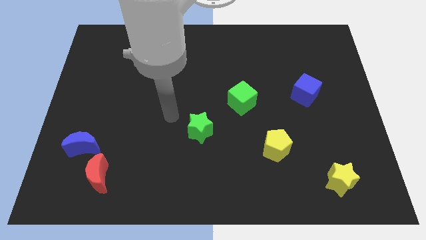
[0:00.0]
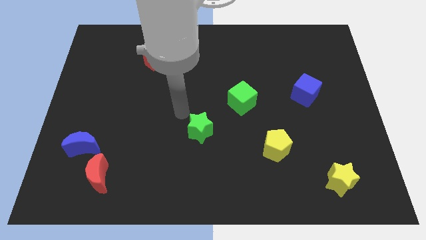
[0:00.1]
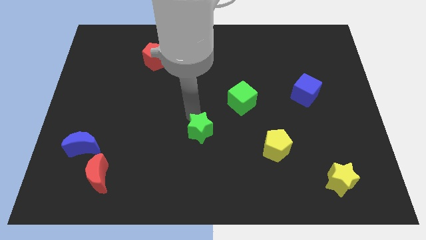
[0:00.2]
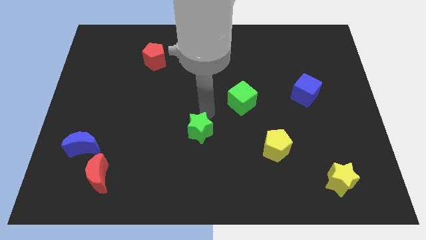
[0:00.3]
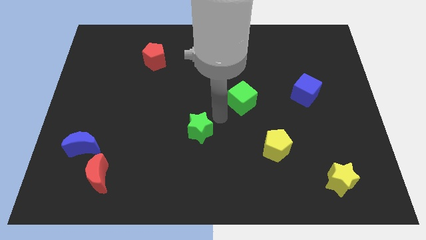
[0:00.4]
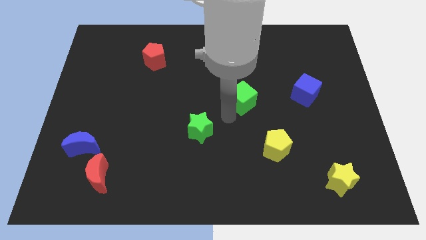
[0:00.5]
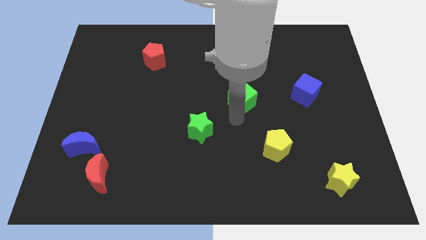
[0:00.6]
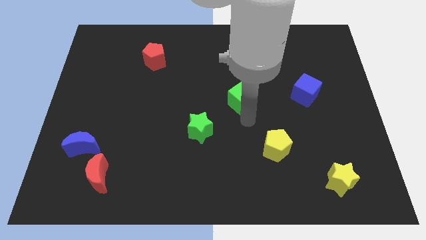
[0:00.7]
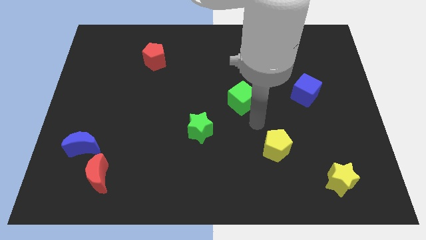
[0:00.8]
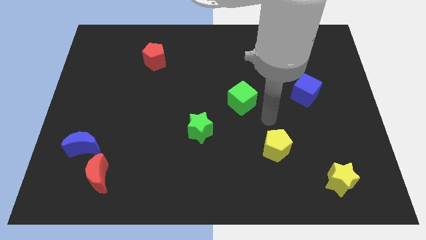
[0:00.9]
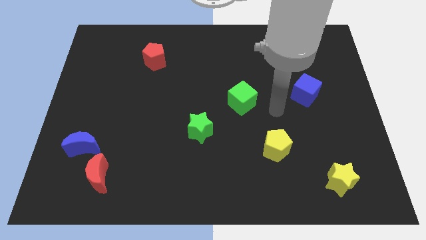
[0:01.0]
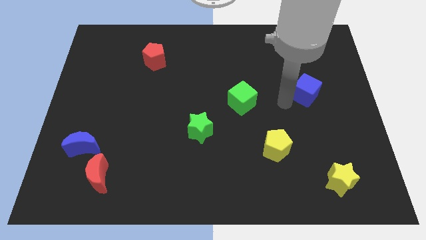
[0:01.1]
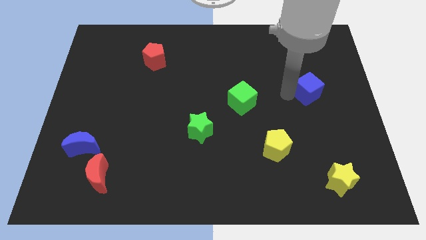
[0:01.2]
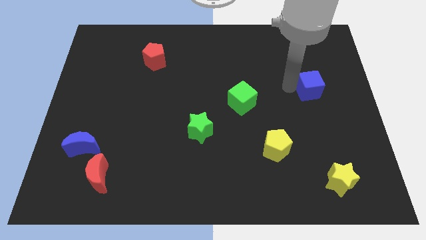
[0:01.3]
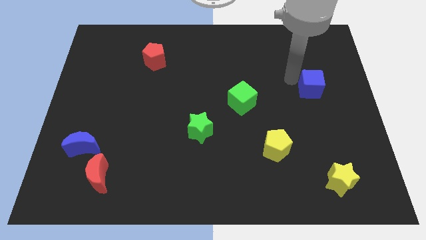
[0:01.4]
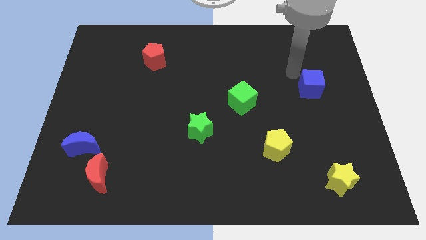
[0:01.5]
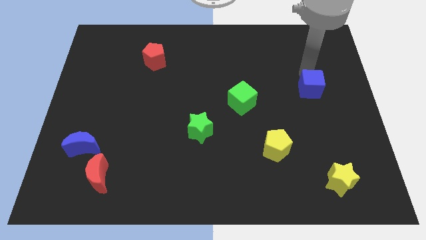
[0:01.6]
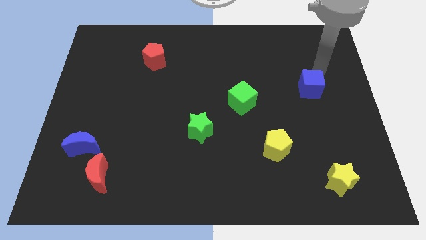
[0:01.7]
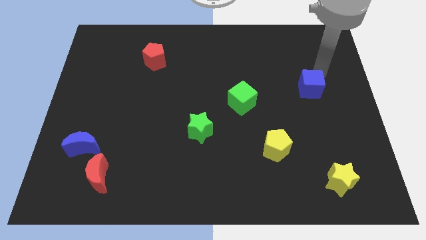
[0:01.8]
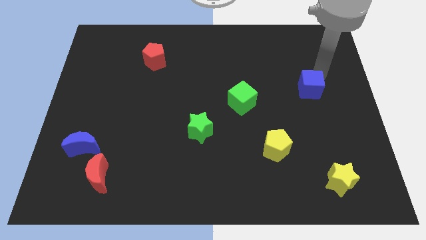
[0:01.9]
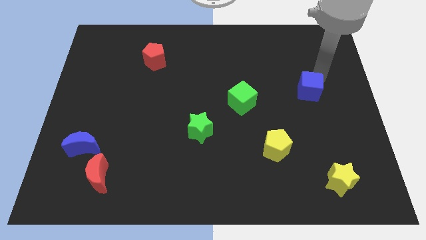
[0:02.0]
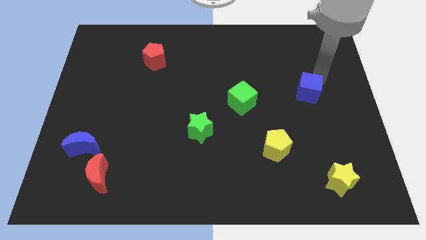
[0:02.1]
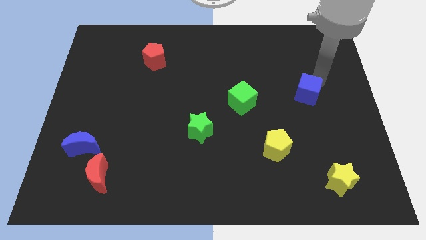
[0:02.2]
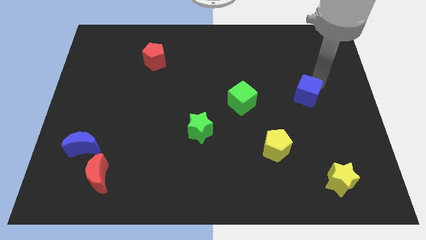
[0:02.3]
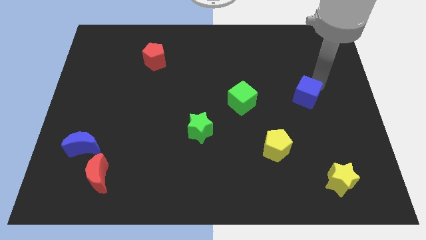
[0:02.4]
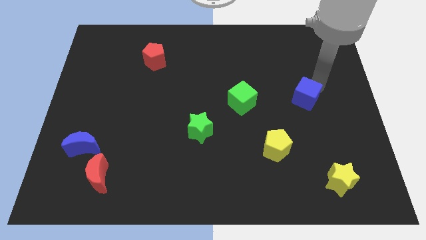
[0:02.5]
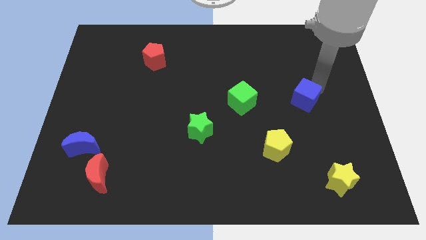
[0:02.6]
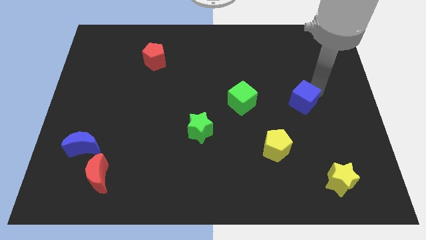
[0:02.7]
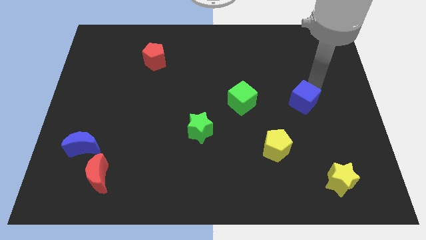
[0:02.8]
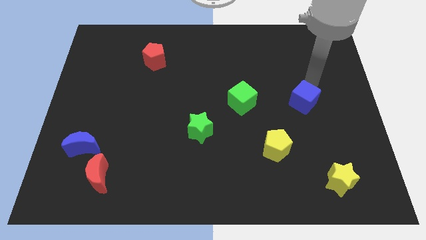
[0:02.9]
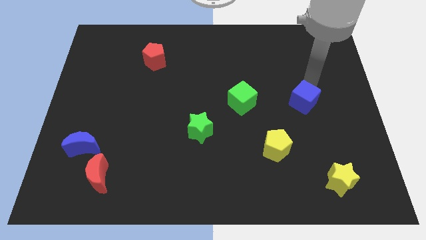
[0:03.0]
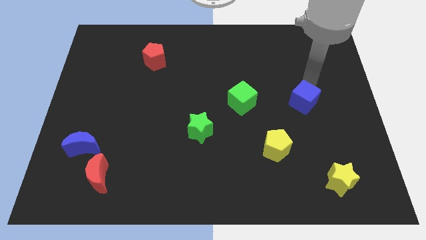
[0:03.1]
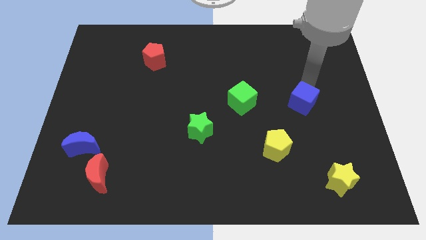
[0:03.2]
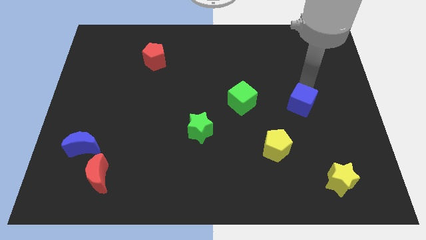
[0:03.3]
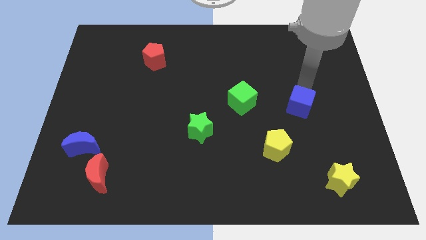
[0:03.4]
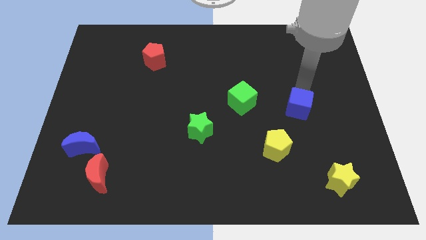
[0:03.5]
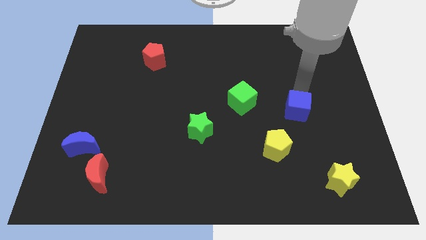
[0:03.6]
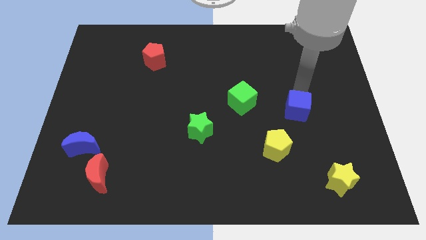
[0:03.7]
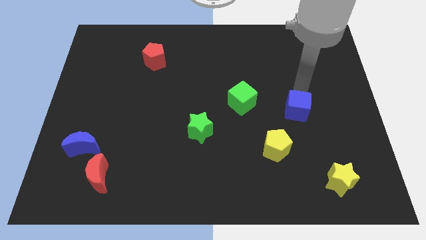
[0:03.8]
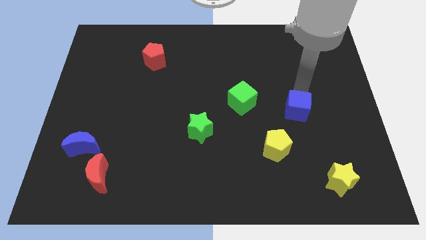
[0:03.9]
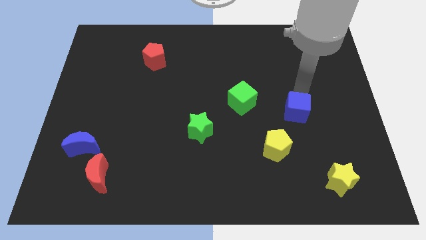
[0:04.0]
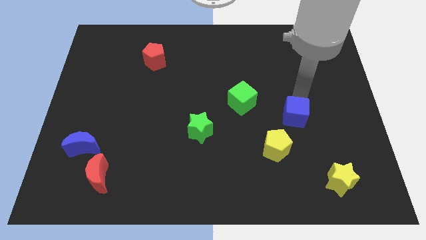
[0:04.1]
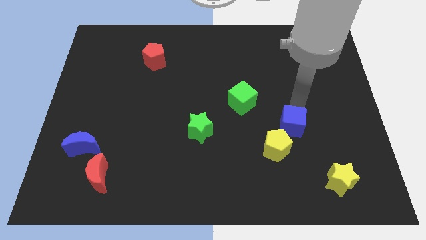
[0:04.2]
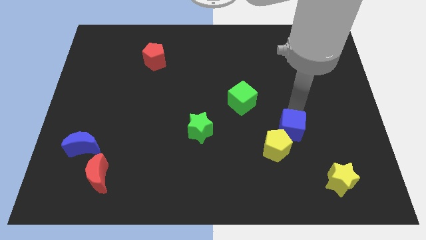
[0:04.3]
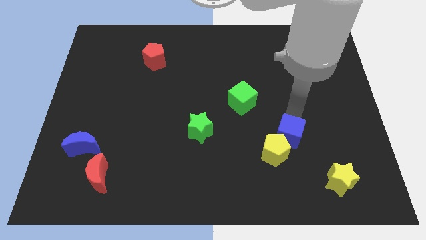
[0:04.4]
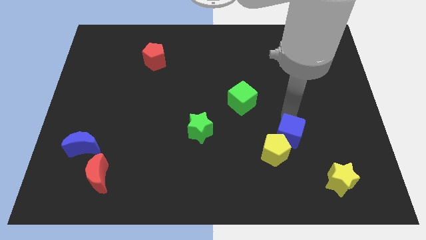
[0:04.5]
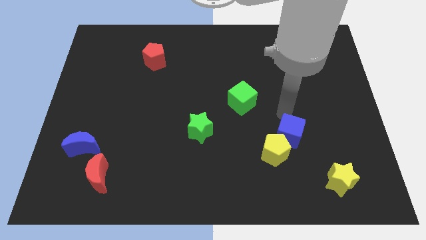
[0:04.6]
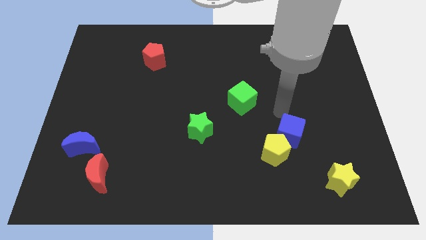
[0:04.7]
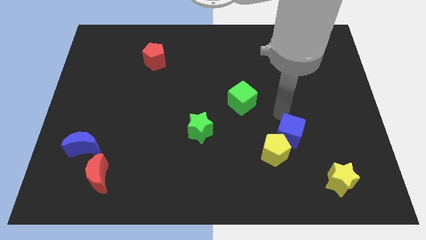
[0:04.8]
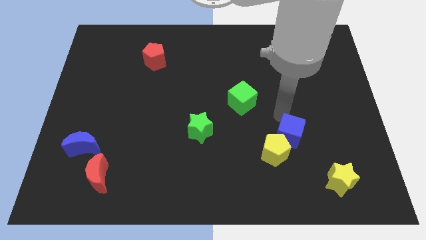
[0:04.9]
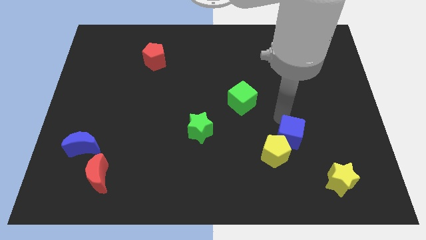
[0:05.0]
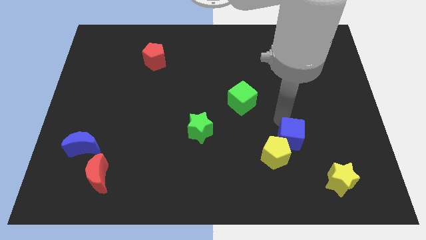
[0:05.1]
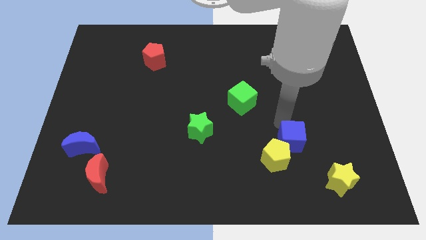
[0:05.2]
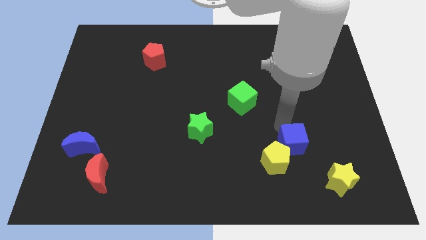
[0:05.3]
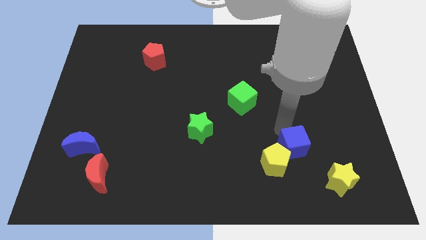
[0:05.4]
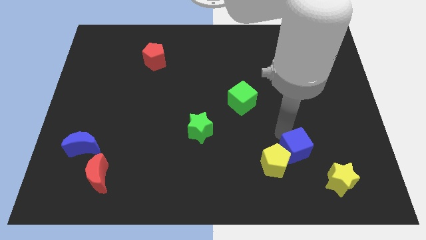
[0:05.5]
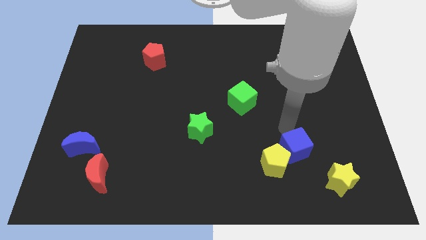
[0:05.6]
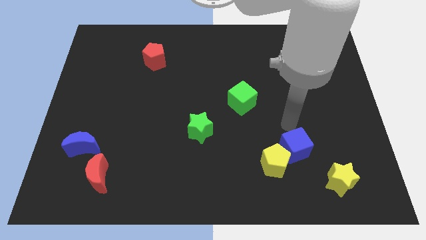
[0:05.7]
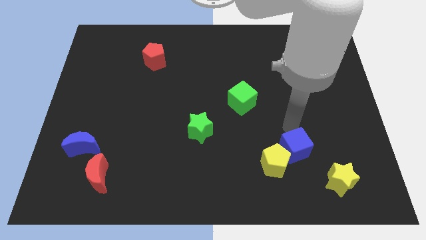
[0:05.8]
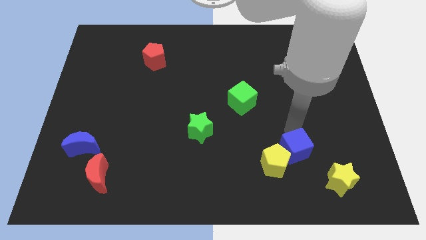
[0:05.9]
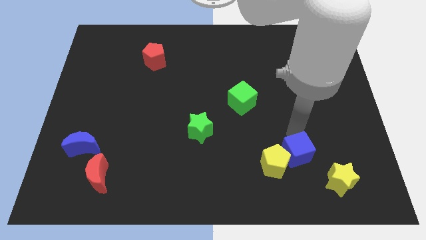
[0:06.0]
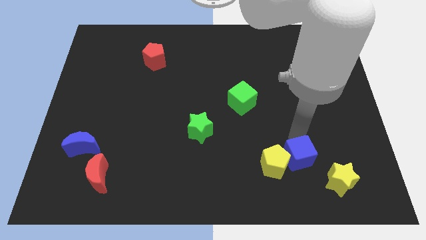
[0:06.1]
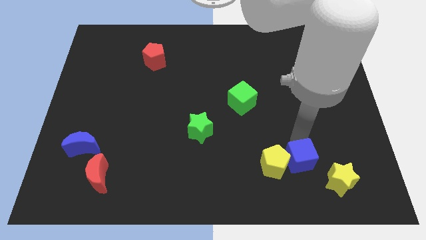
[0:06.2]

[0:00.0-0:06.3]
put the blue cube to the bottom right side of the yellow pentagon
